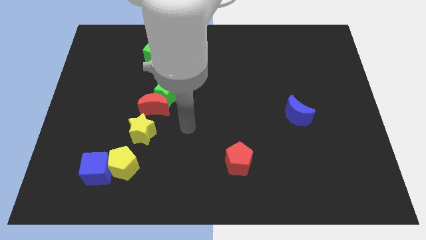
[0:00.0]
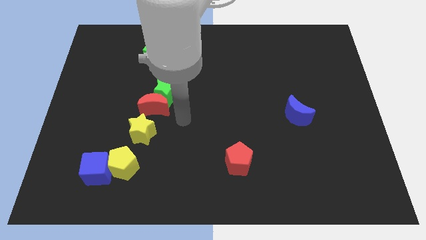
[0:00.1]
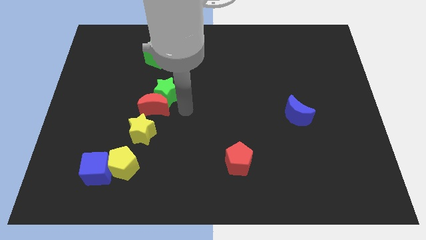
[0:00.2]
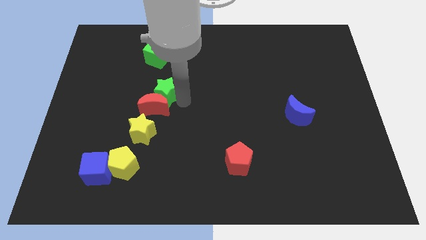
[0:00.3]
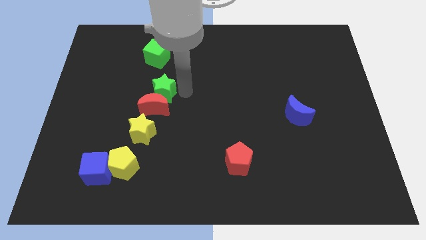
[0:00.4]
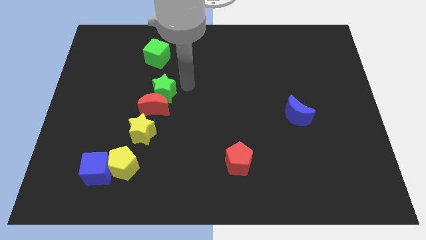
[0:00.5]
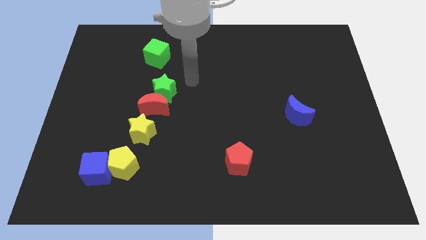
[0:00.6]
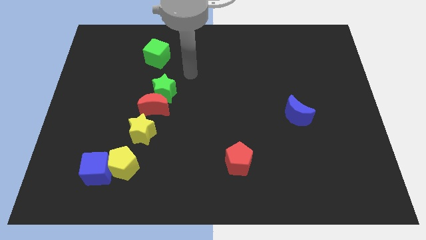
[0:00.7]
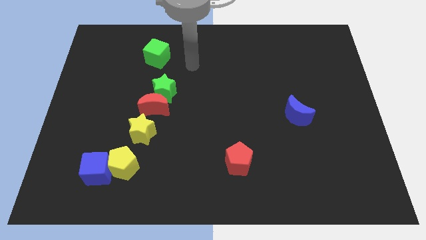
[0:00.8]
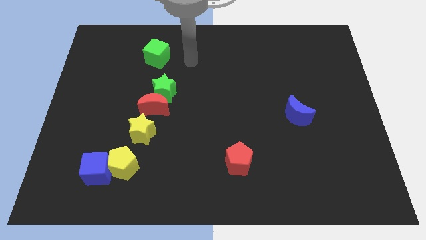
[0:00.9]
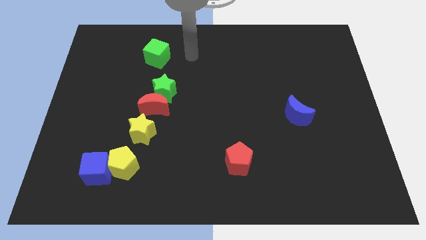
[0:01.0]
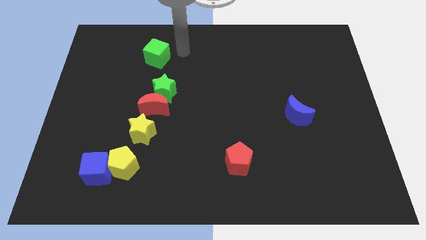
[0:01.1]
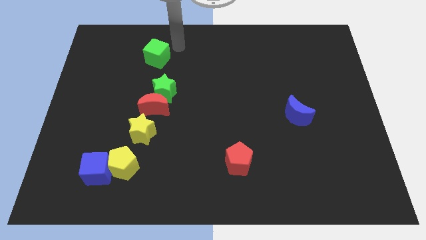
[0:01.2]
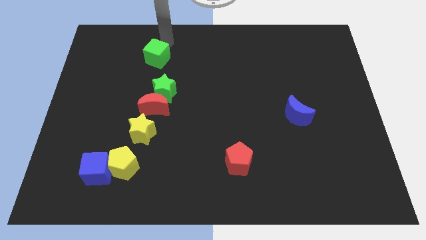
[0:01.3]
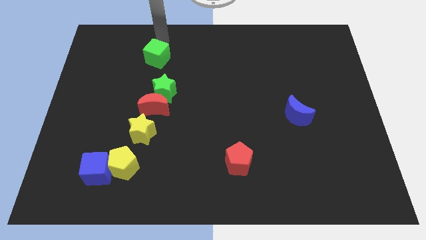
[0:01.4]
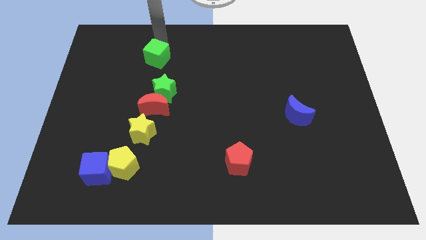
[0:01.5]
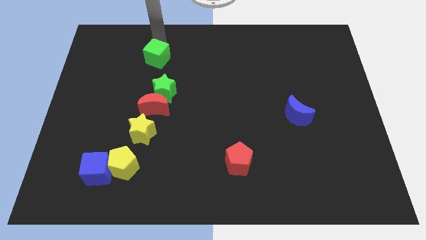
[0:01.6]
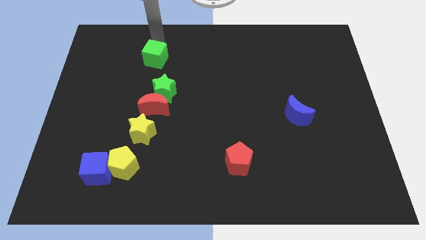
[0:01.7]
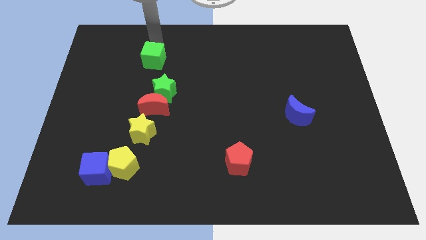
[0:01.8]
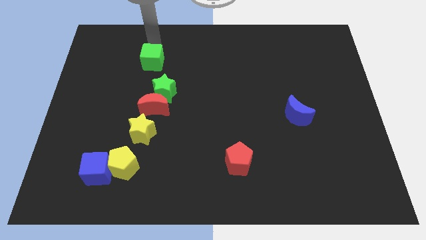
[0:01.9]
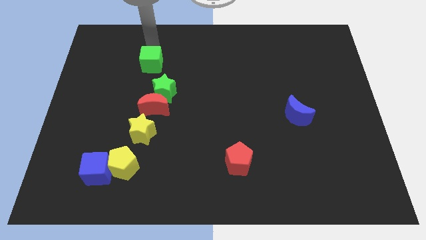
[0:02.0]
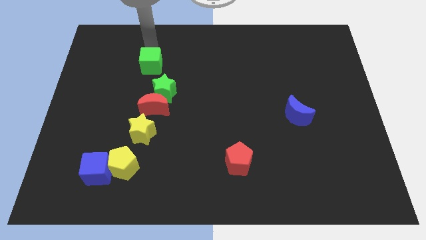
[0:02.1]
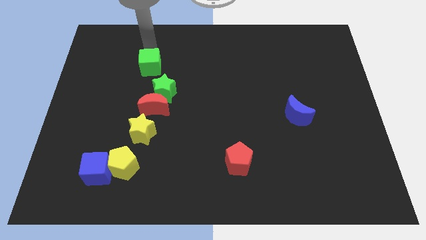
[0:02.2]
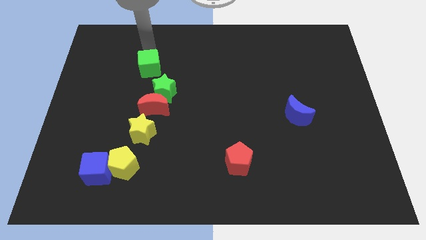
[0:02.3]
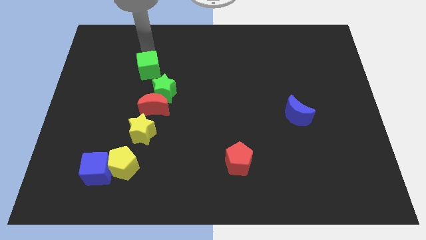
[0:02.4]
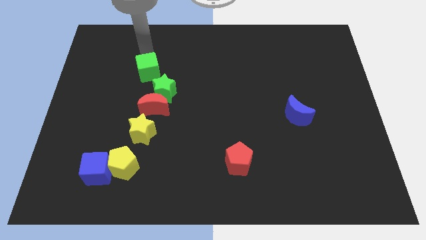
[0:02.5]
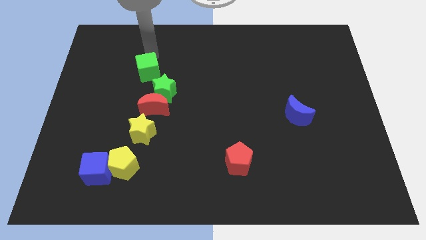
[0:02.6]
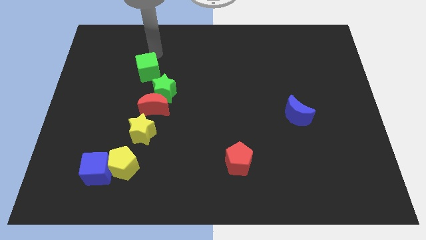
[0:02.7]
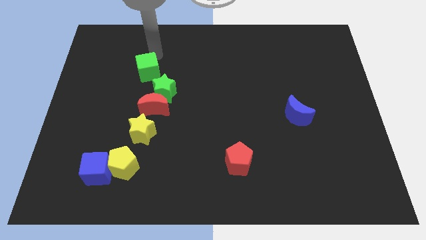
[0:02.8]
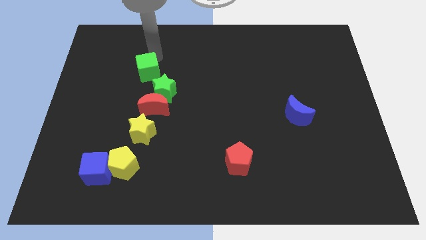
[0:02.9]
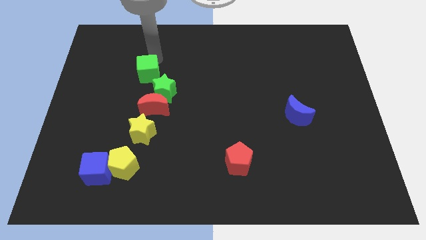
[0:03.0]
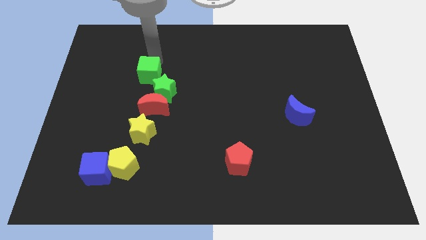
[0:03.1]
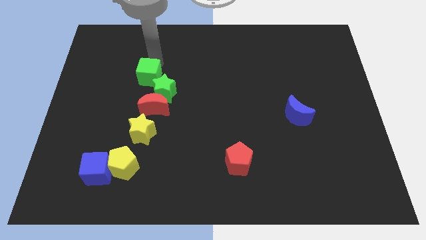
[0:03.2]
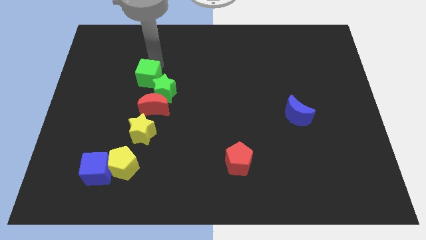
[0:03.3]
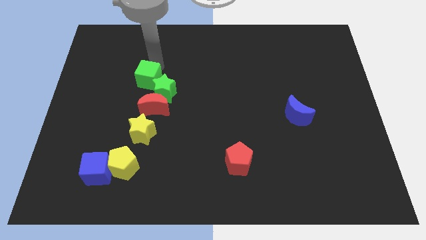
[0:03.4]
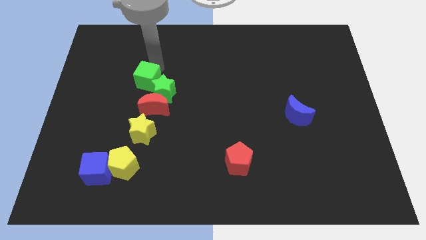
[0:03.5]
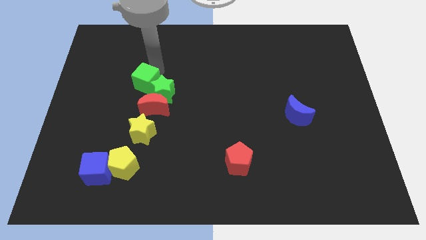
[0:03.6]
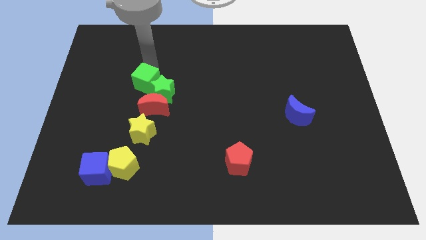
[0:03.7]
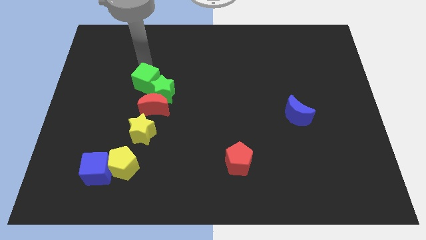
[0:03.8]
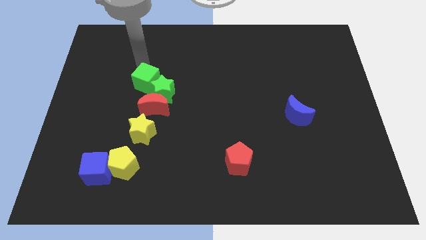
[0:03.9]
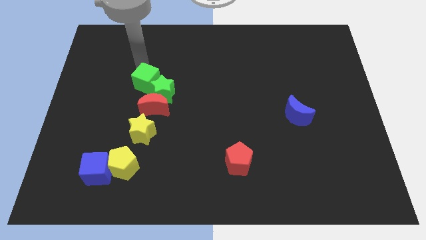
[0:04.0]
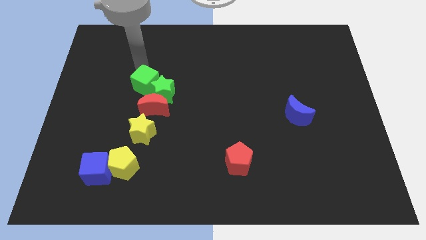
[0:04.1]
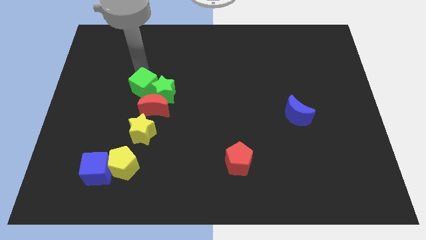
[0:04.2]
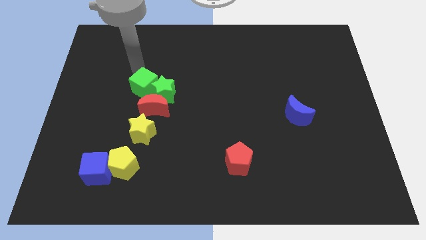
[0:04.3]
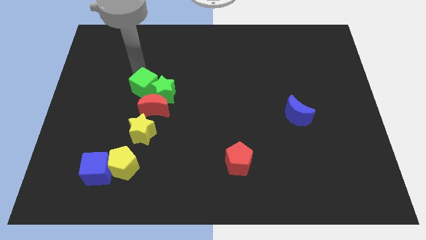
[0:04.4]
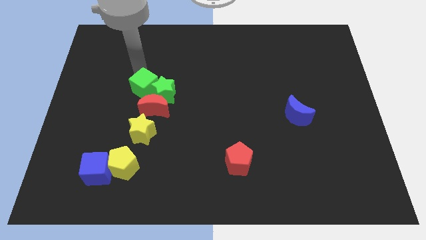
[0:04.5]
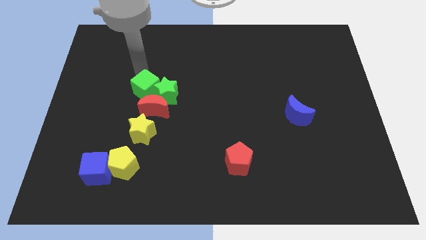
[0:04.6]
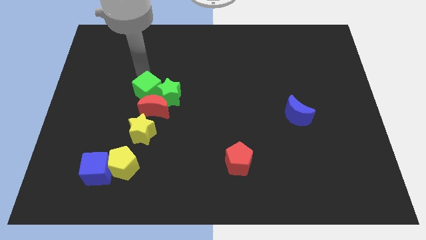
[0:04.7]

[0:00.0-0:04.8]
put the green cube next to the red moon

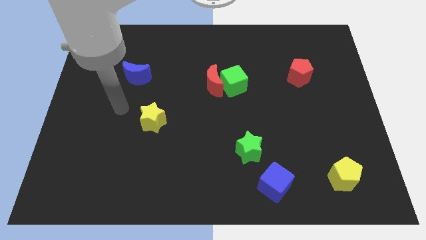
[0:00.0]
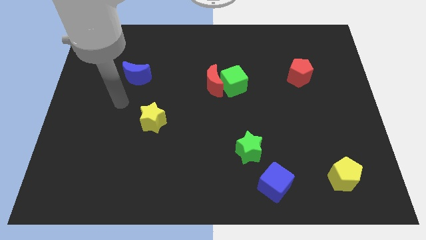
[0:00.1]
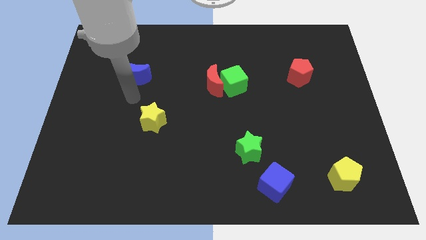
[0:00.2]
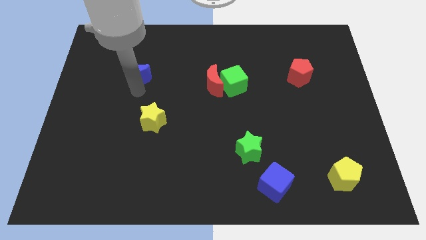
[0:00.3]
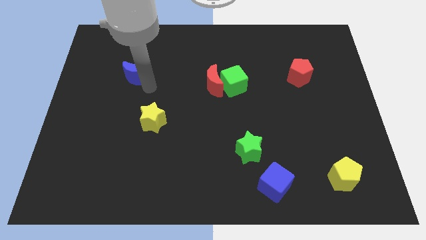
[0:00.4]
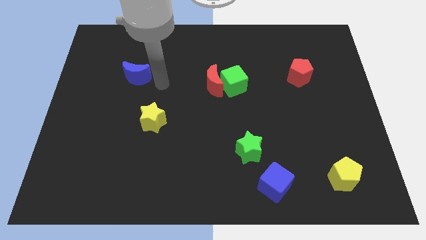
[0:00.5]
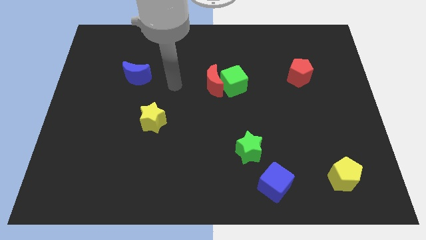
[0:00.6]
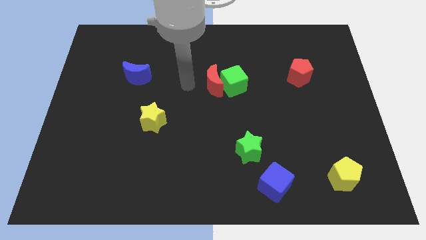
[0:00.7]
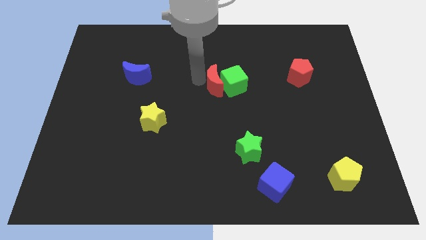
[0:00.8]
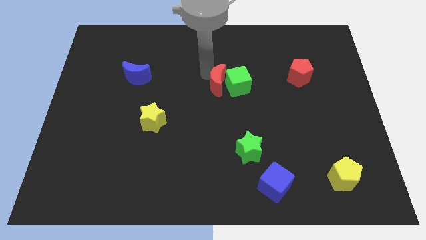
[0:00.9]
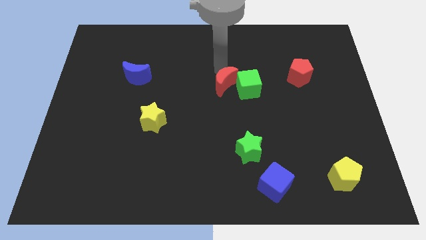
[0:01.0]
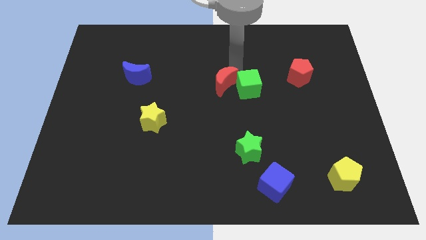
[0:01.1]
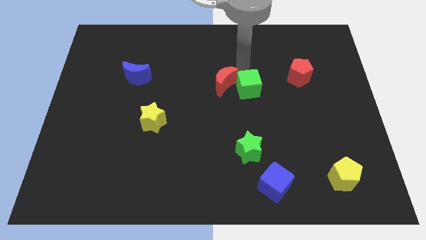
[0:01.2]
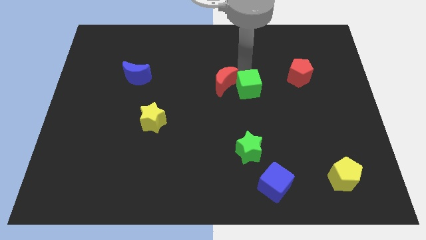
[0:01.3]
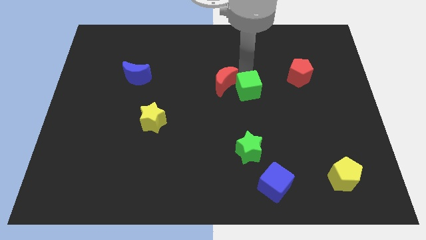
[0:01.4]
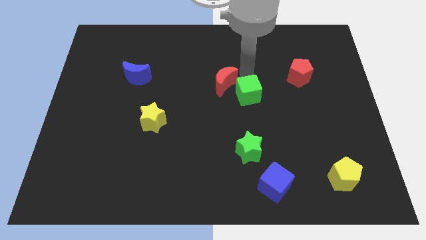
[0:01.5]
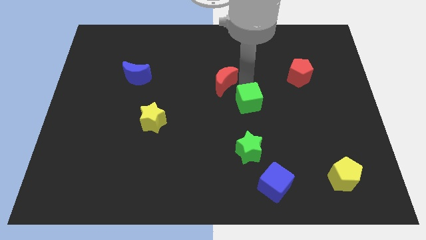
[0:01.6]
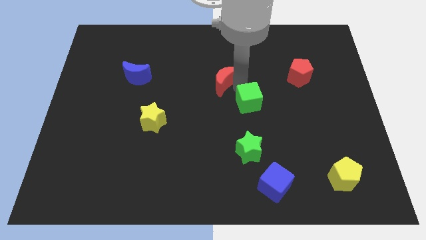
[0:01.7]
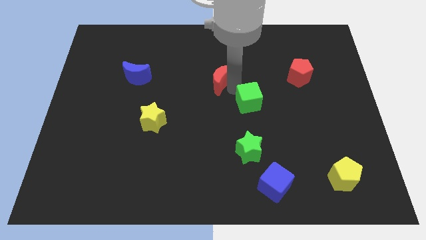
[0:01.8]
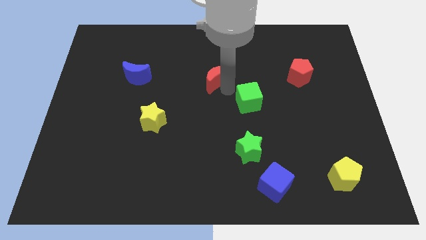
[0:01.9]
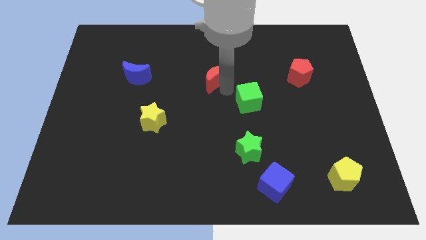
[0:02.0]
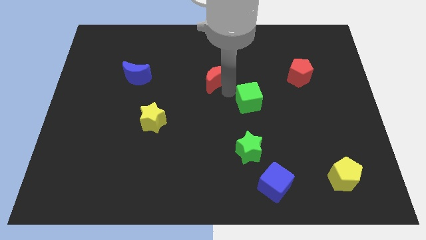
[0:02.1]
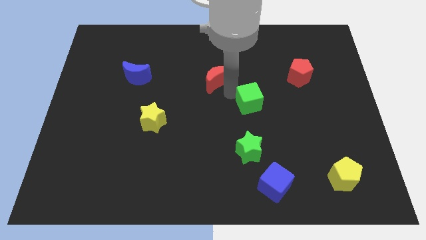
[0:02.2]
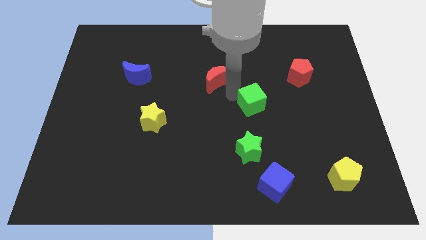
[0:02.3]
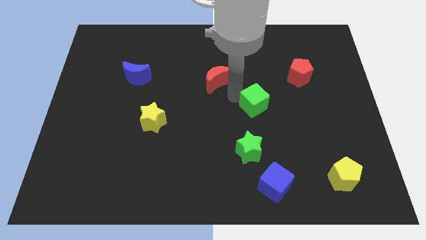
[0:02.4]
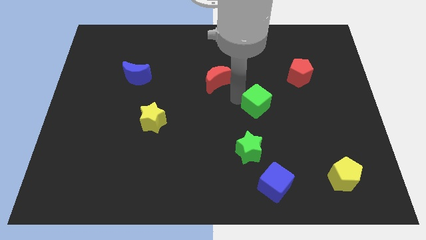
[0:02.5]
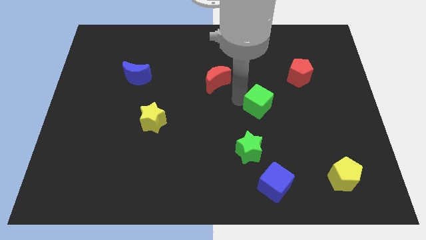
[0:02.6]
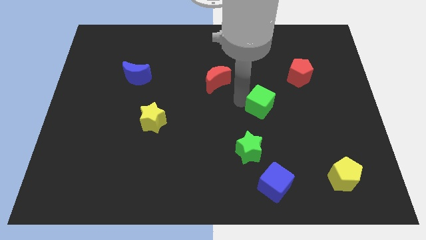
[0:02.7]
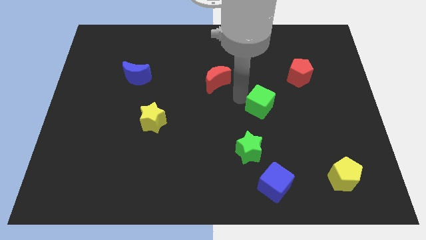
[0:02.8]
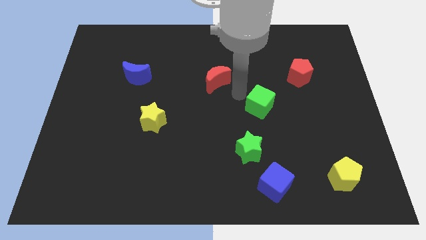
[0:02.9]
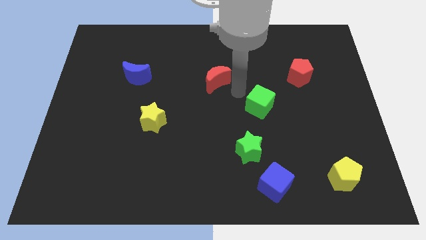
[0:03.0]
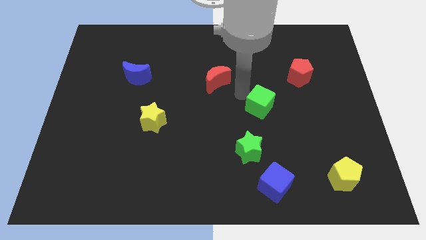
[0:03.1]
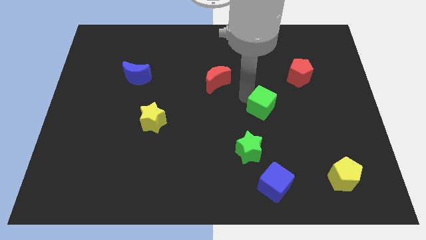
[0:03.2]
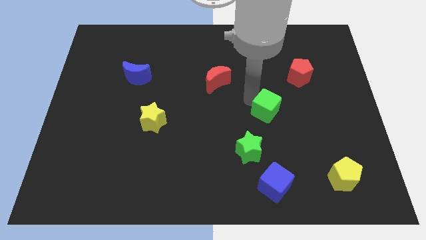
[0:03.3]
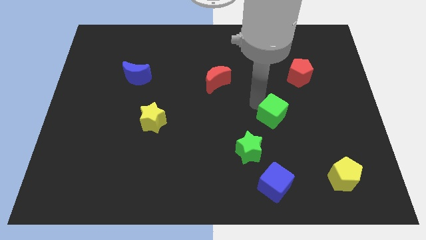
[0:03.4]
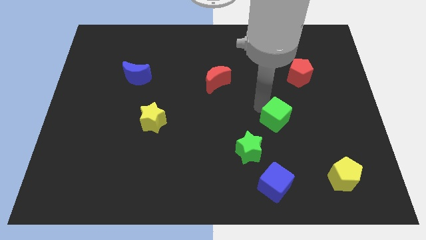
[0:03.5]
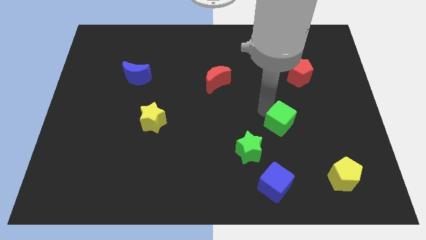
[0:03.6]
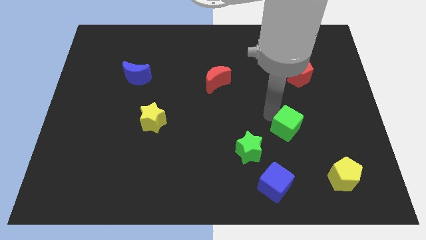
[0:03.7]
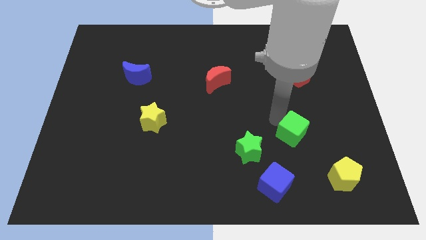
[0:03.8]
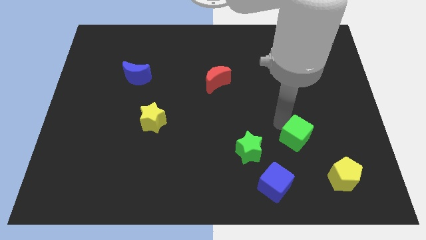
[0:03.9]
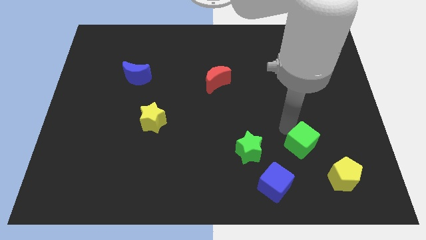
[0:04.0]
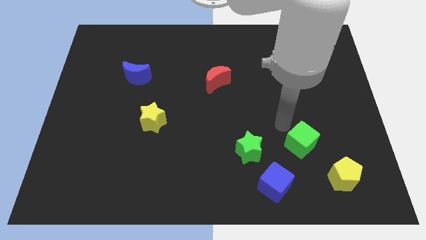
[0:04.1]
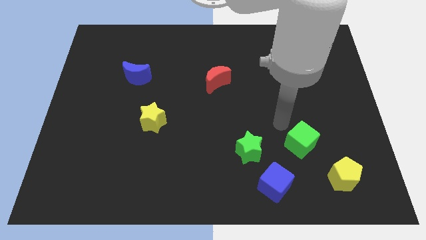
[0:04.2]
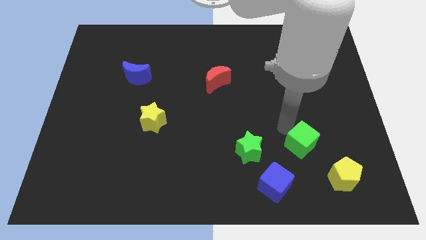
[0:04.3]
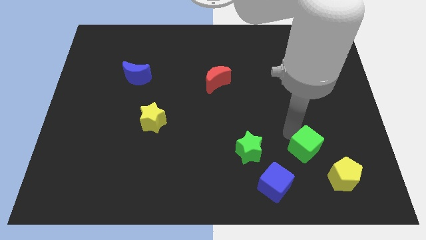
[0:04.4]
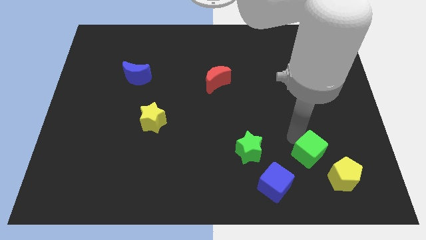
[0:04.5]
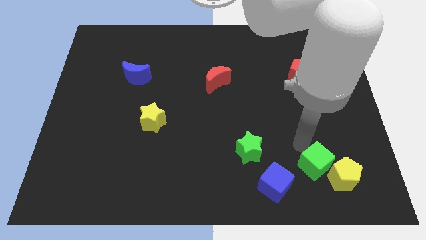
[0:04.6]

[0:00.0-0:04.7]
slide the green cube to the yellow pentagon
